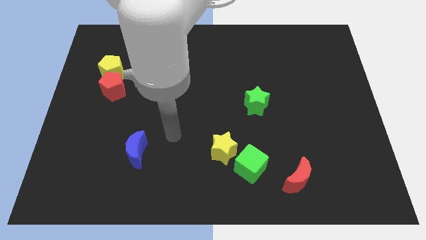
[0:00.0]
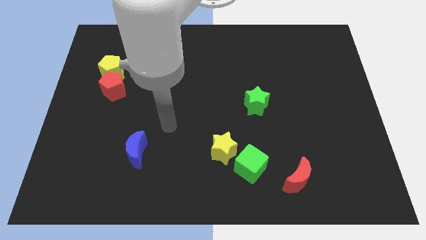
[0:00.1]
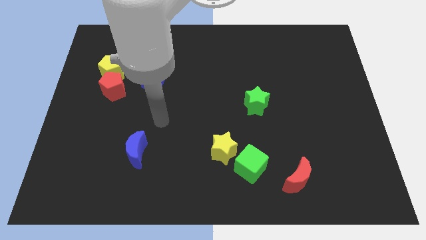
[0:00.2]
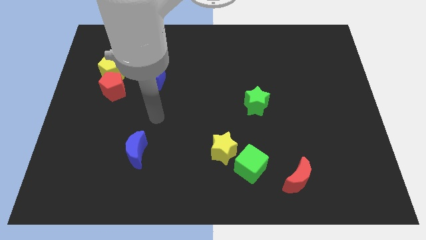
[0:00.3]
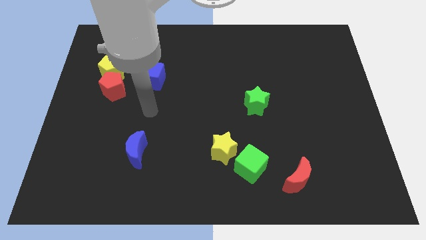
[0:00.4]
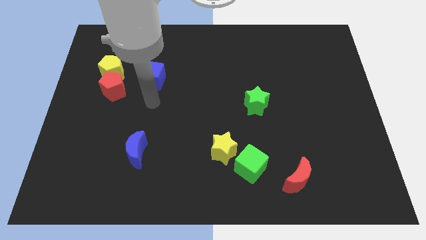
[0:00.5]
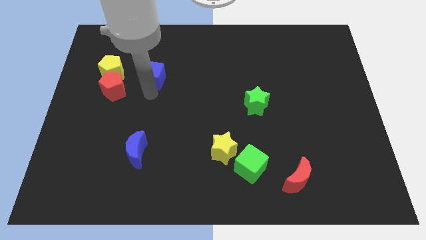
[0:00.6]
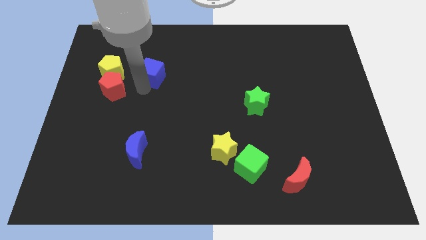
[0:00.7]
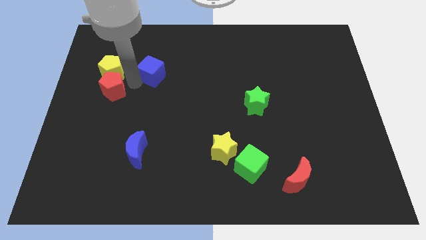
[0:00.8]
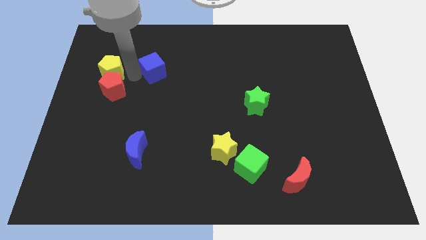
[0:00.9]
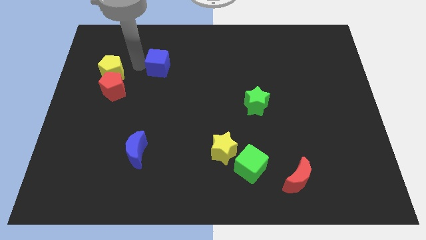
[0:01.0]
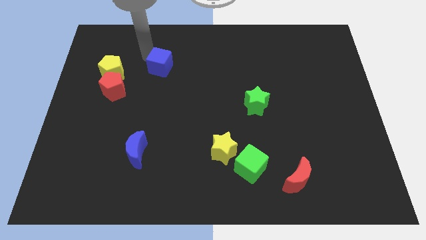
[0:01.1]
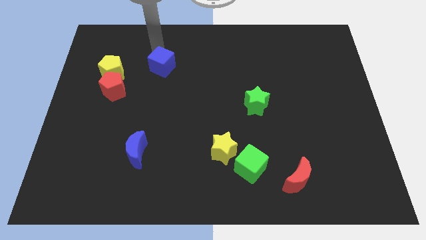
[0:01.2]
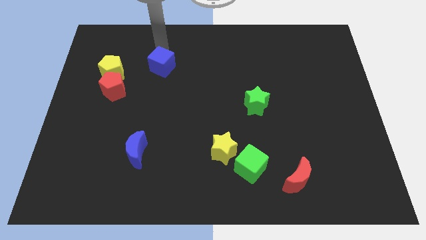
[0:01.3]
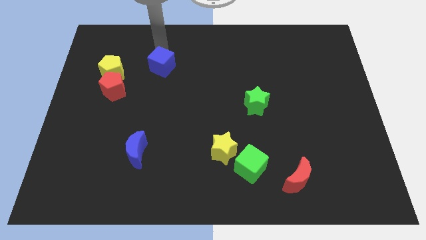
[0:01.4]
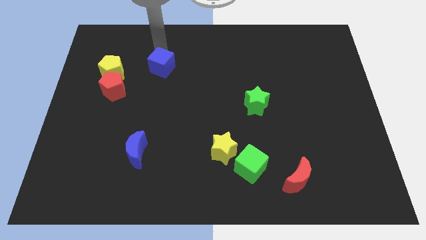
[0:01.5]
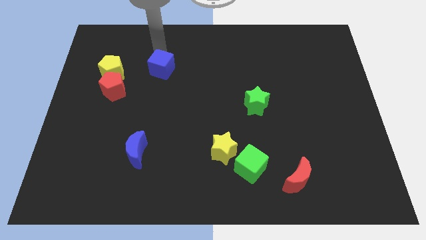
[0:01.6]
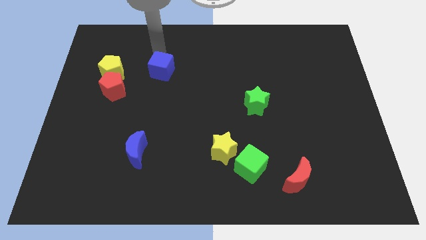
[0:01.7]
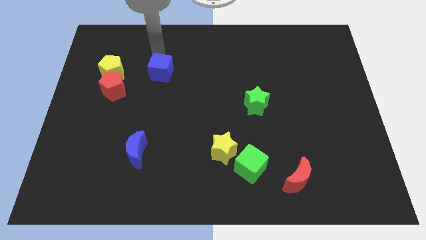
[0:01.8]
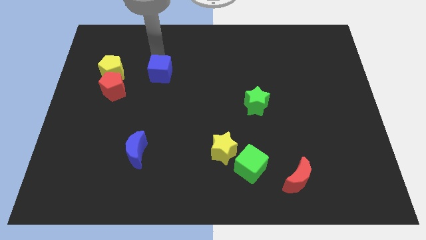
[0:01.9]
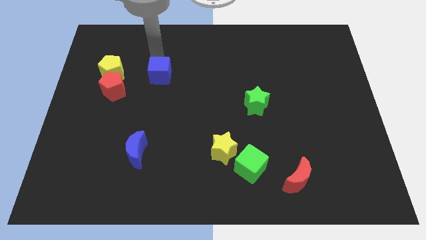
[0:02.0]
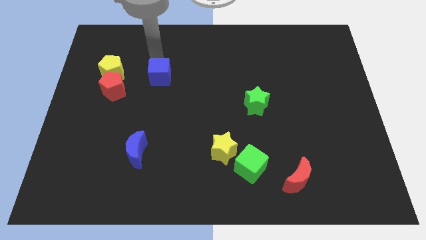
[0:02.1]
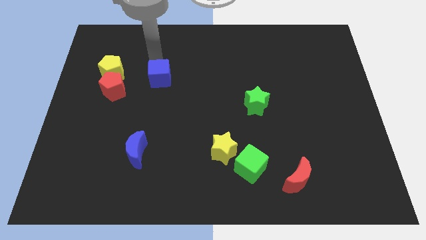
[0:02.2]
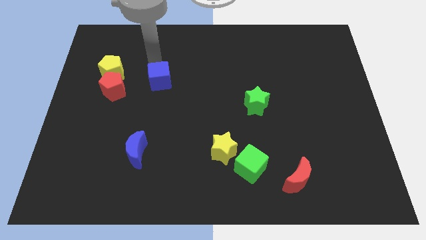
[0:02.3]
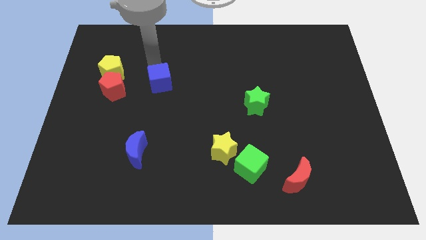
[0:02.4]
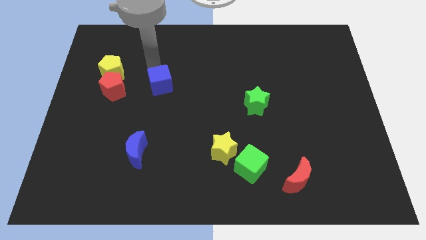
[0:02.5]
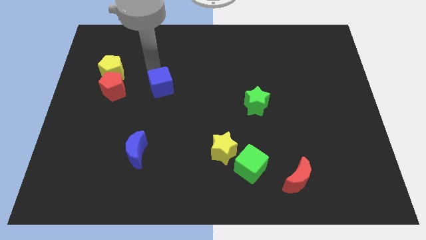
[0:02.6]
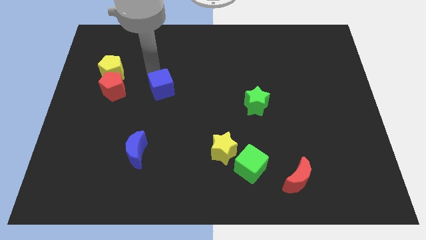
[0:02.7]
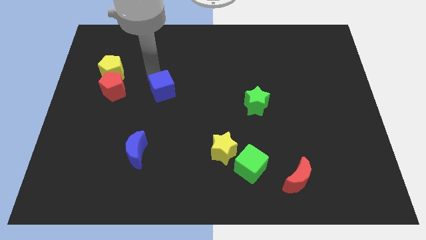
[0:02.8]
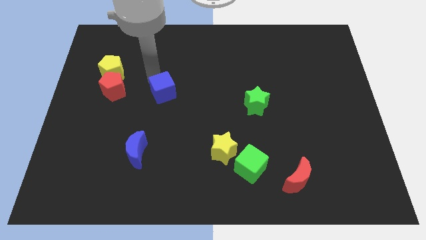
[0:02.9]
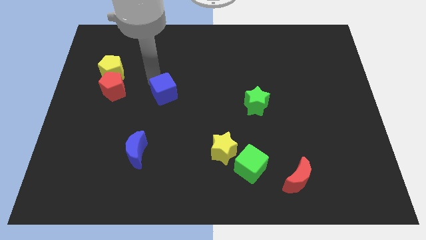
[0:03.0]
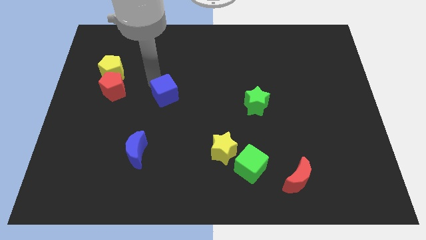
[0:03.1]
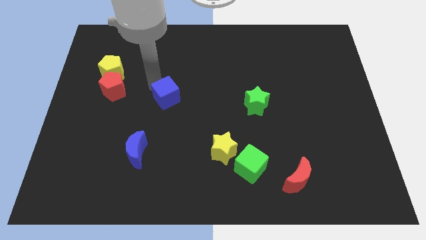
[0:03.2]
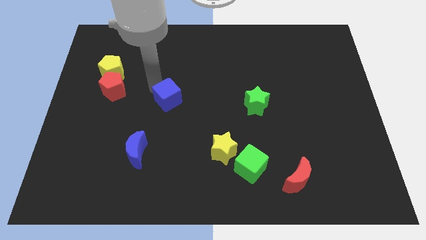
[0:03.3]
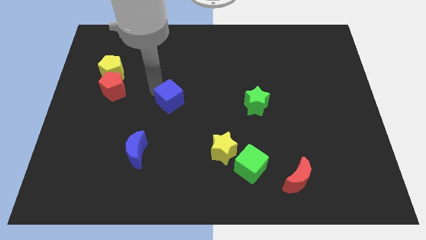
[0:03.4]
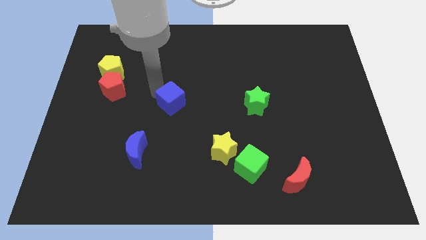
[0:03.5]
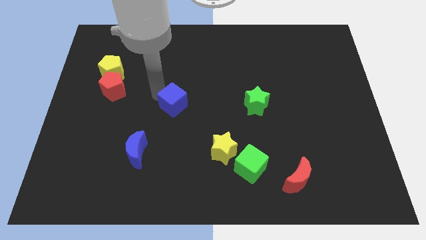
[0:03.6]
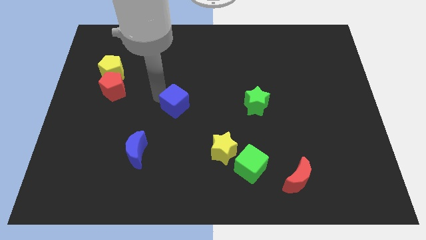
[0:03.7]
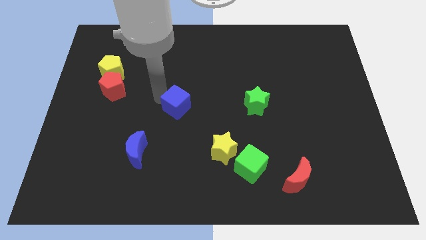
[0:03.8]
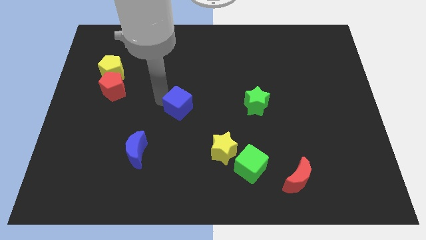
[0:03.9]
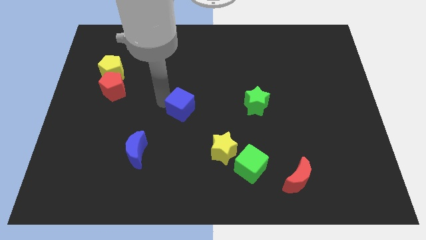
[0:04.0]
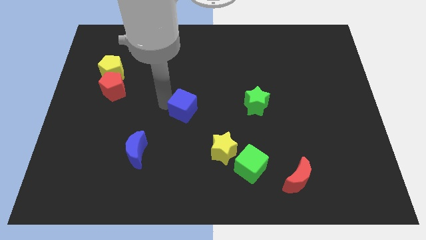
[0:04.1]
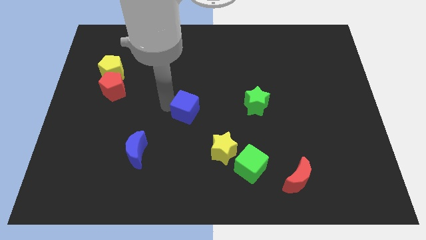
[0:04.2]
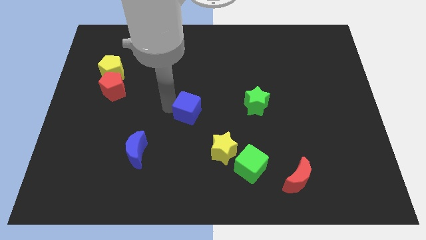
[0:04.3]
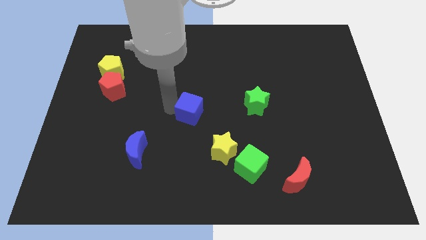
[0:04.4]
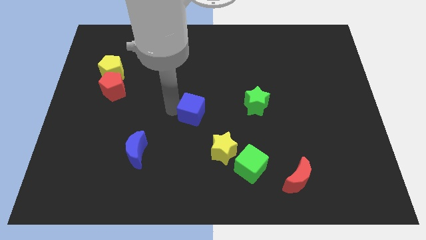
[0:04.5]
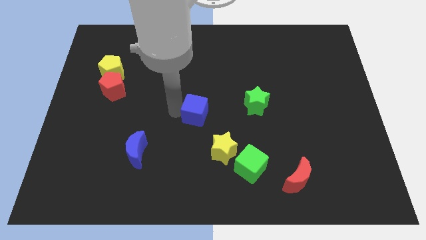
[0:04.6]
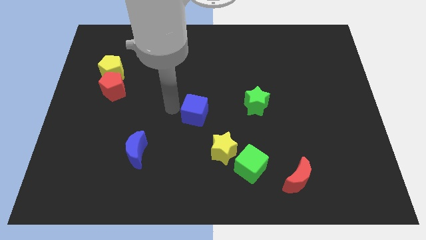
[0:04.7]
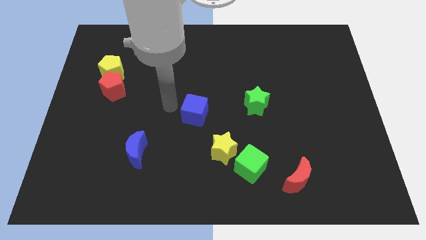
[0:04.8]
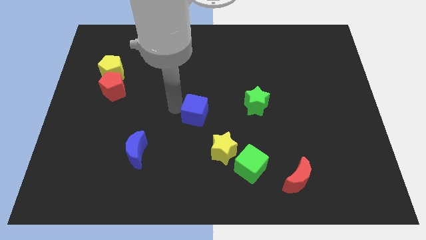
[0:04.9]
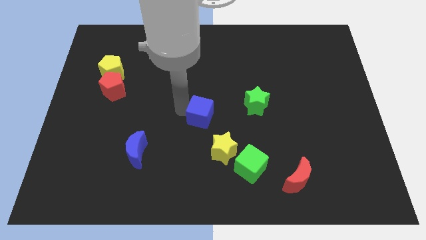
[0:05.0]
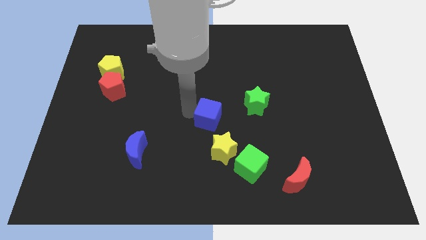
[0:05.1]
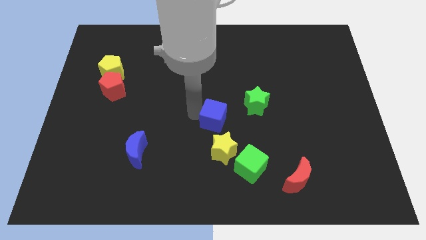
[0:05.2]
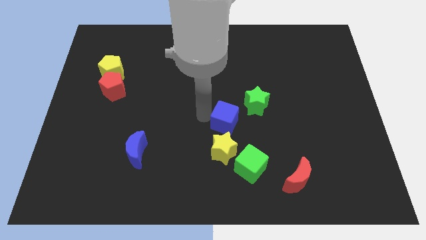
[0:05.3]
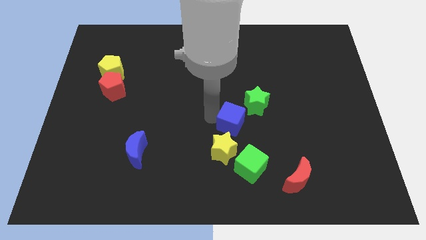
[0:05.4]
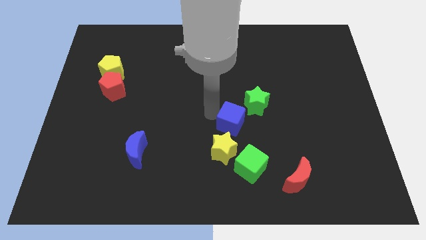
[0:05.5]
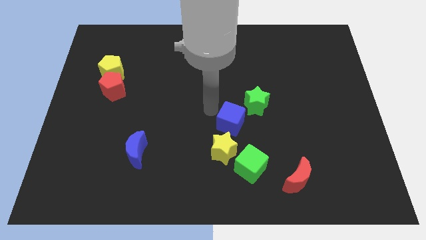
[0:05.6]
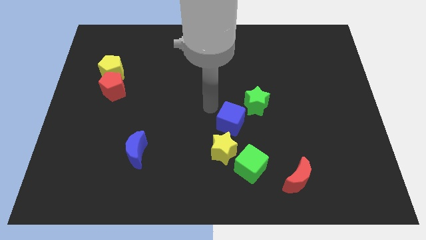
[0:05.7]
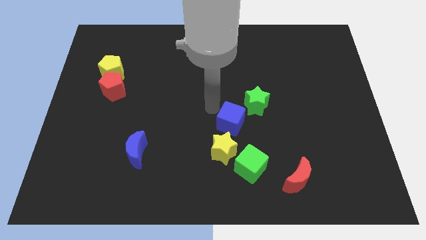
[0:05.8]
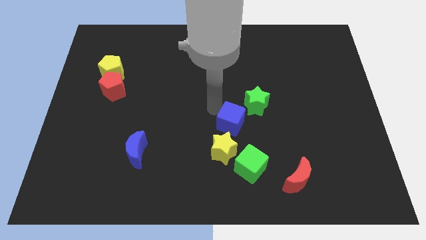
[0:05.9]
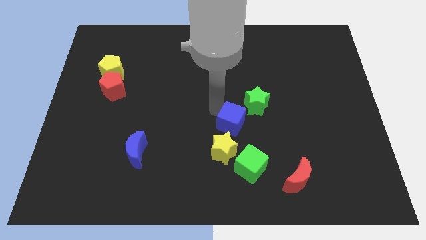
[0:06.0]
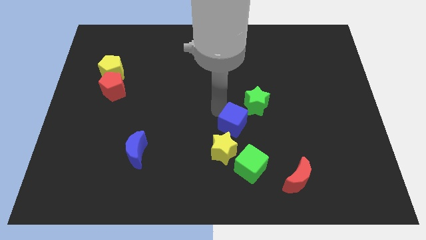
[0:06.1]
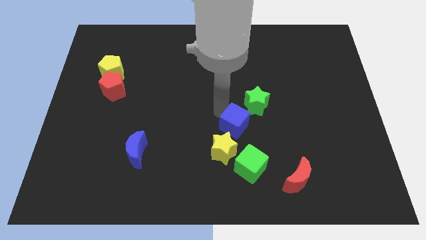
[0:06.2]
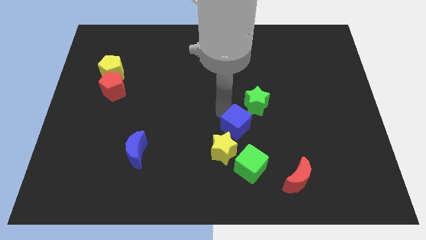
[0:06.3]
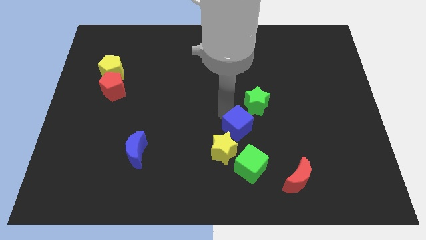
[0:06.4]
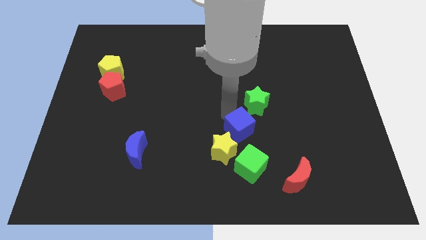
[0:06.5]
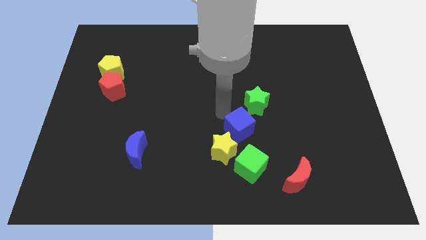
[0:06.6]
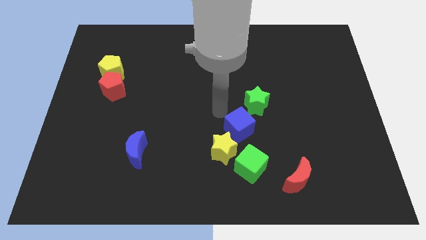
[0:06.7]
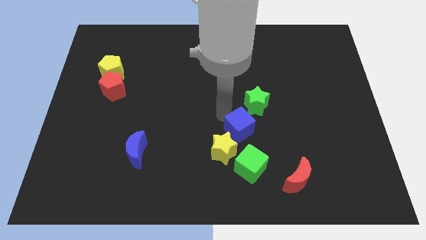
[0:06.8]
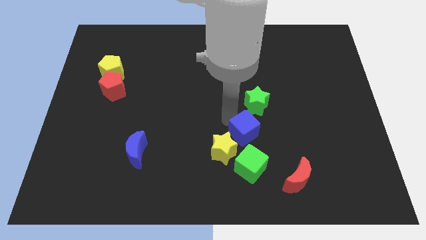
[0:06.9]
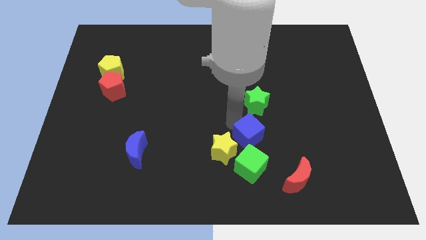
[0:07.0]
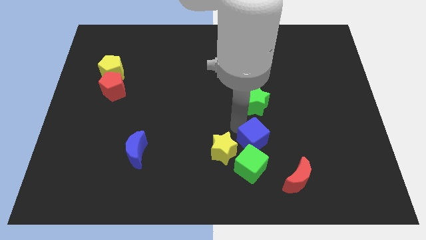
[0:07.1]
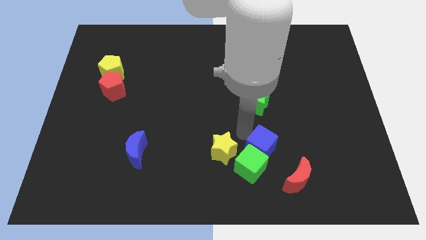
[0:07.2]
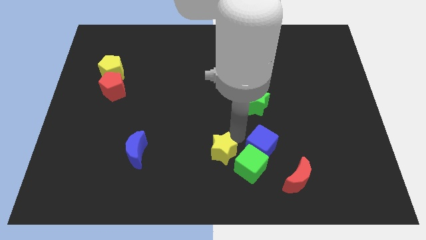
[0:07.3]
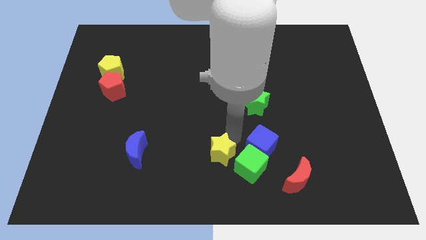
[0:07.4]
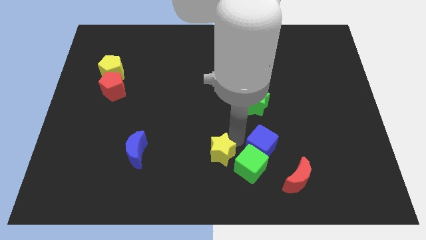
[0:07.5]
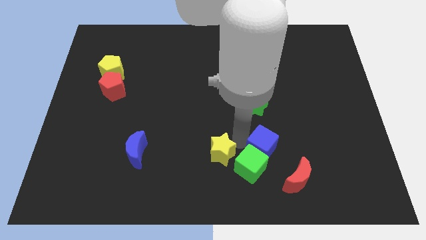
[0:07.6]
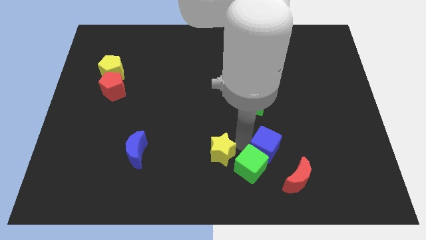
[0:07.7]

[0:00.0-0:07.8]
move the blue cube just right of the green cube
